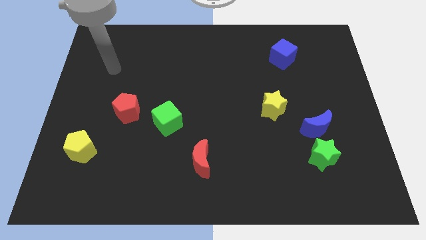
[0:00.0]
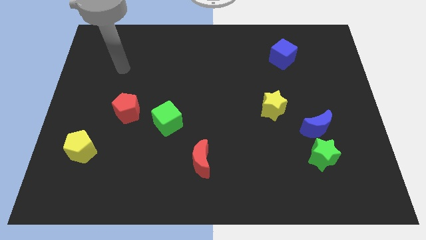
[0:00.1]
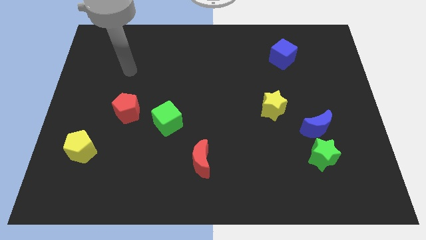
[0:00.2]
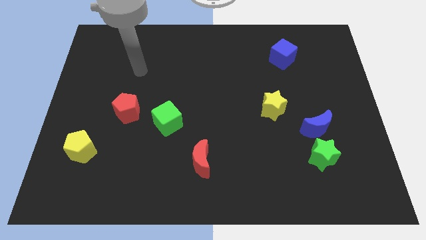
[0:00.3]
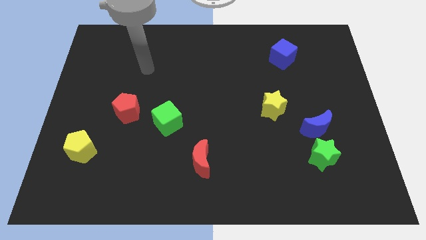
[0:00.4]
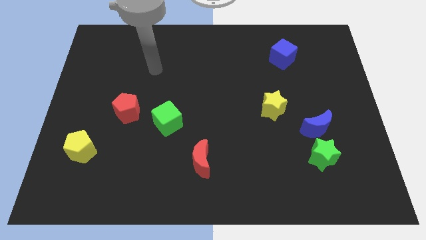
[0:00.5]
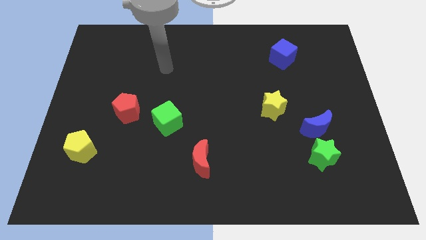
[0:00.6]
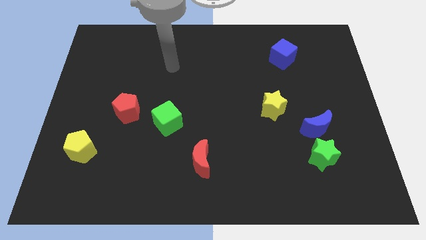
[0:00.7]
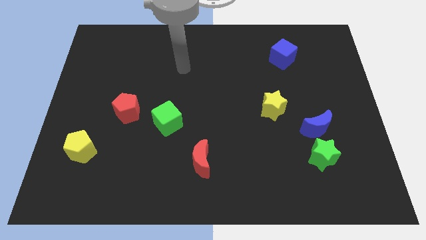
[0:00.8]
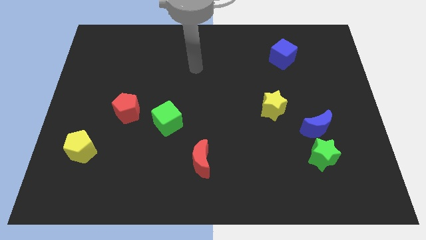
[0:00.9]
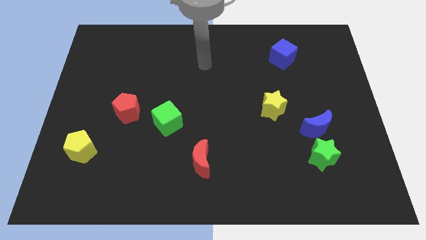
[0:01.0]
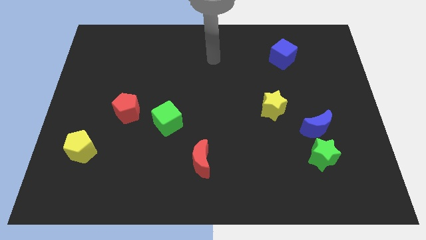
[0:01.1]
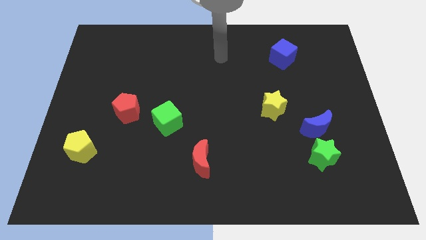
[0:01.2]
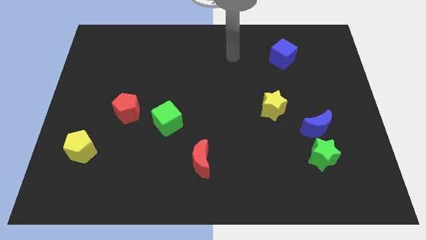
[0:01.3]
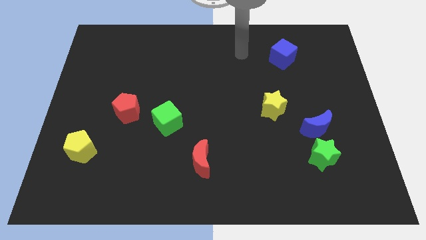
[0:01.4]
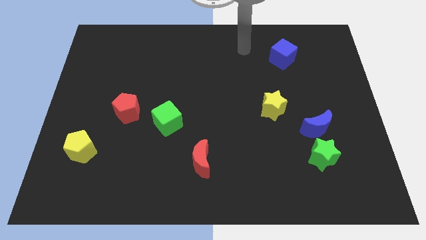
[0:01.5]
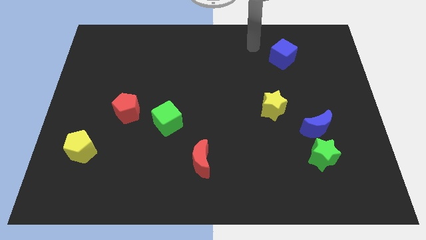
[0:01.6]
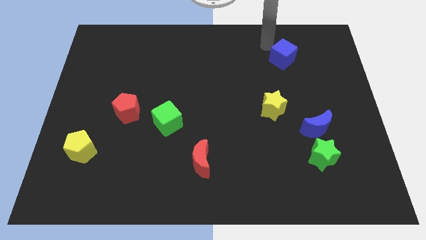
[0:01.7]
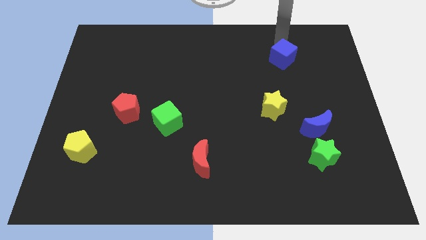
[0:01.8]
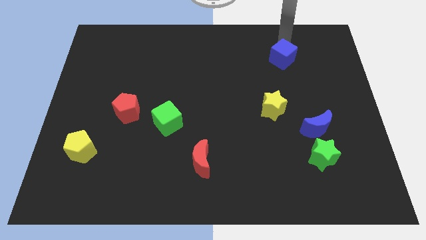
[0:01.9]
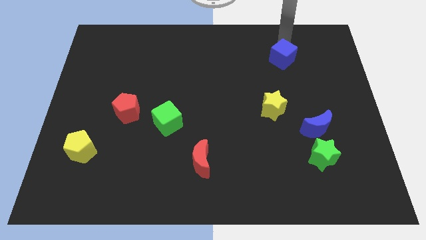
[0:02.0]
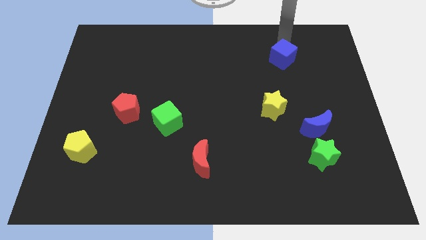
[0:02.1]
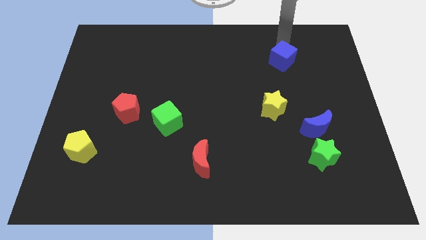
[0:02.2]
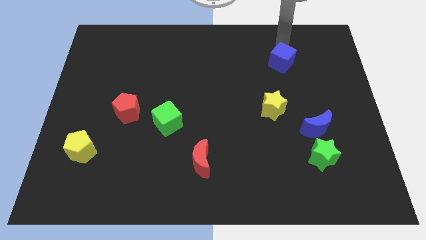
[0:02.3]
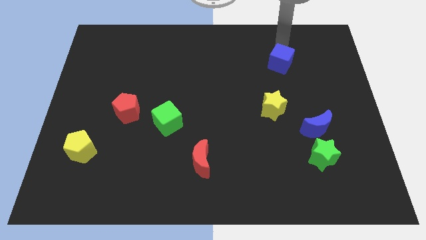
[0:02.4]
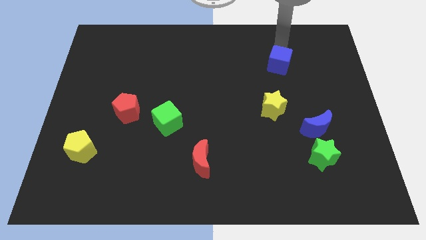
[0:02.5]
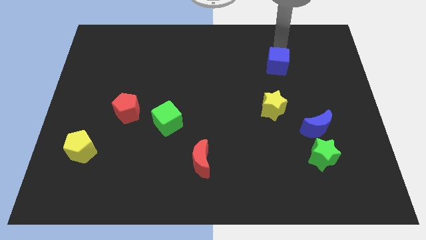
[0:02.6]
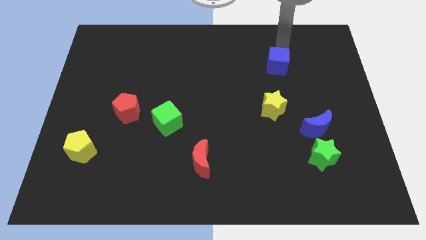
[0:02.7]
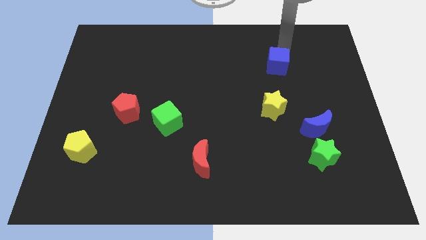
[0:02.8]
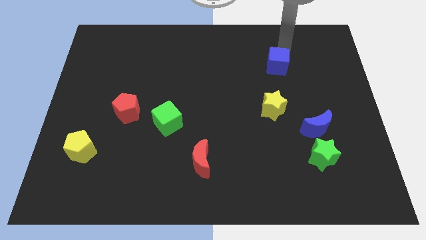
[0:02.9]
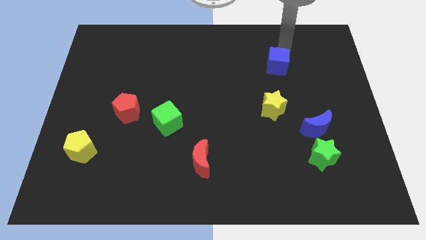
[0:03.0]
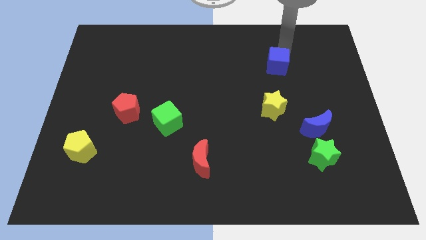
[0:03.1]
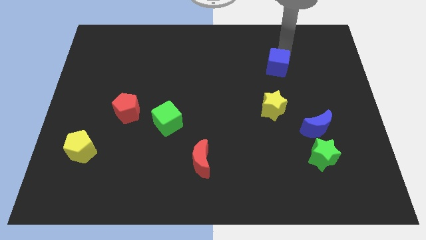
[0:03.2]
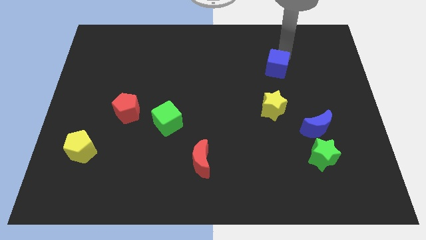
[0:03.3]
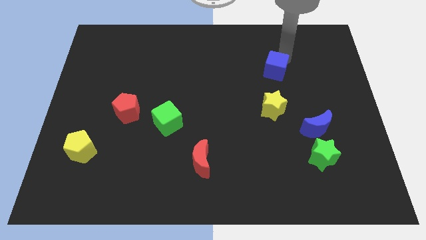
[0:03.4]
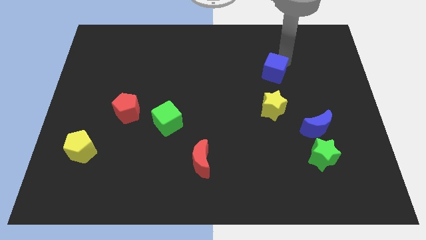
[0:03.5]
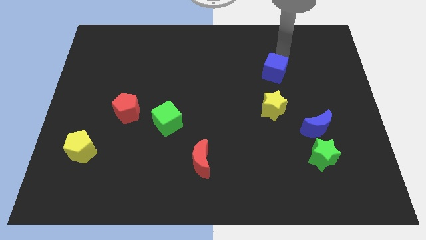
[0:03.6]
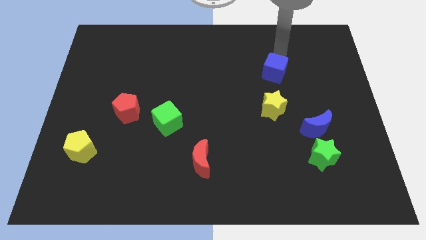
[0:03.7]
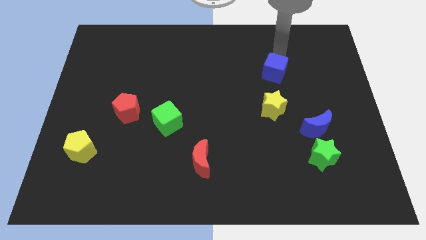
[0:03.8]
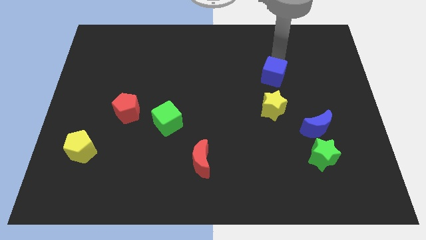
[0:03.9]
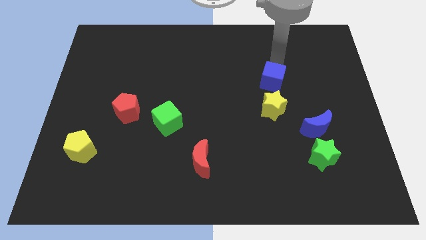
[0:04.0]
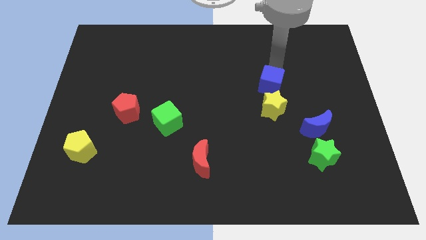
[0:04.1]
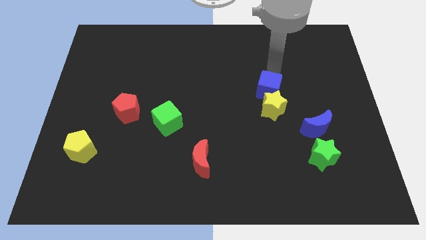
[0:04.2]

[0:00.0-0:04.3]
put the blue cube close to the yellow star

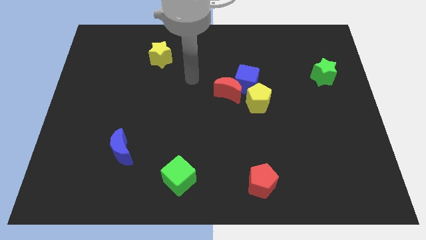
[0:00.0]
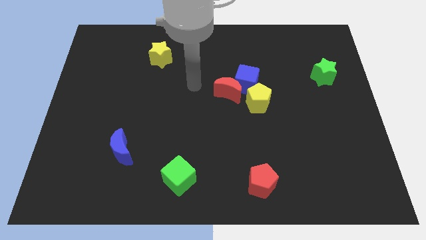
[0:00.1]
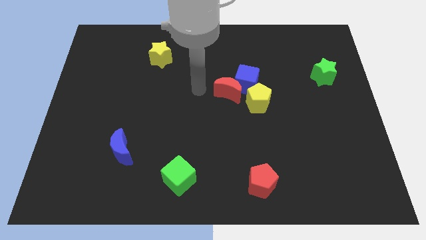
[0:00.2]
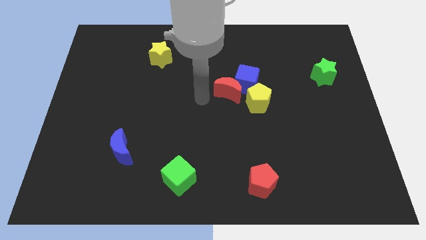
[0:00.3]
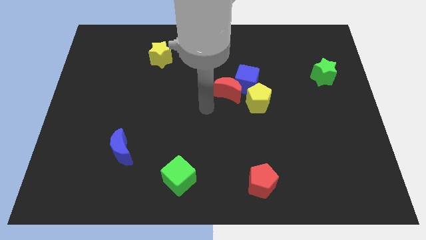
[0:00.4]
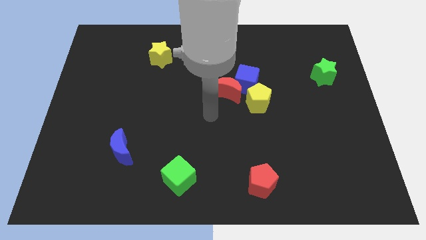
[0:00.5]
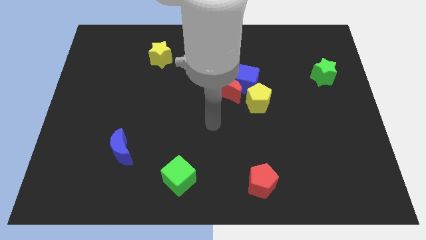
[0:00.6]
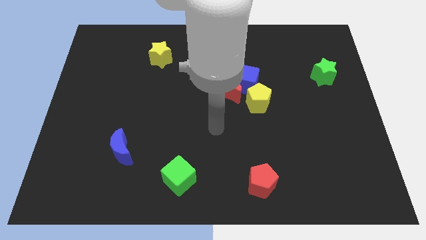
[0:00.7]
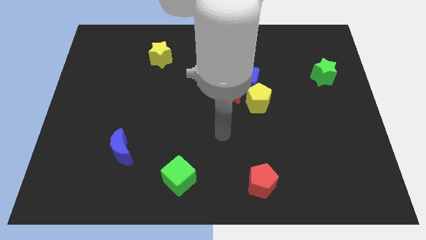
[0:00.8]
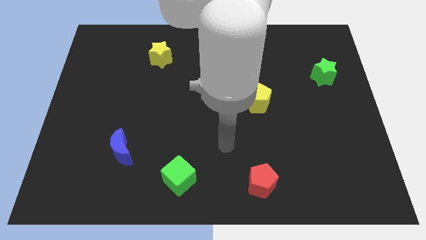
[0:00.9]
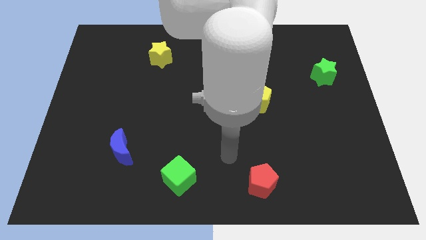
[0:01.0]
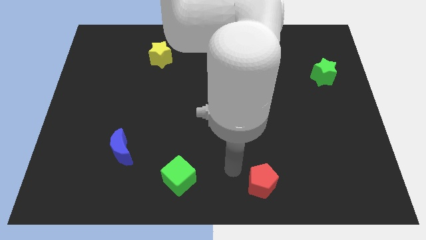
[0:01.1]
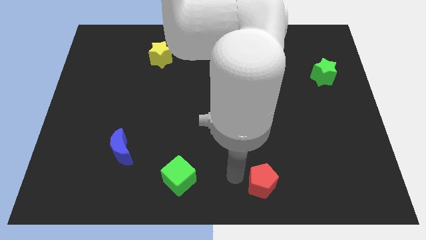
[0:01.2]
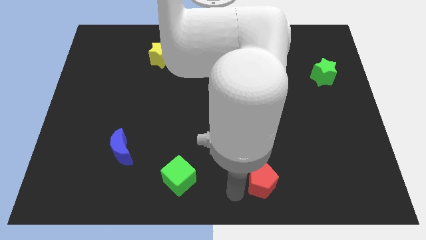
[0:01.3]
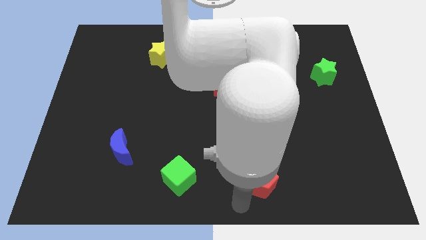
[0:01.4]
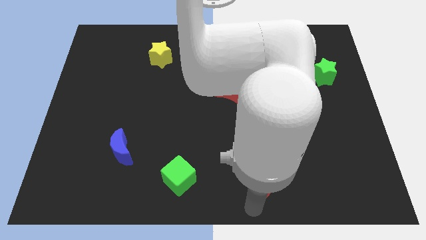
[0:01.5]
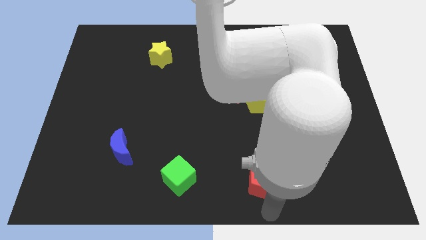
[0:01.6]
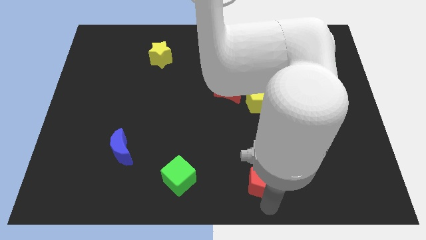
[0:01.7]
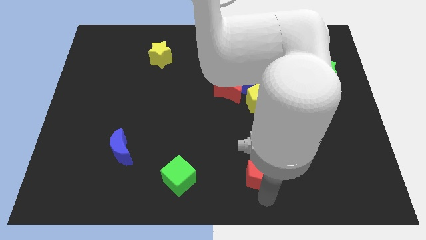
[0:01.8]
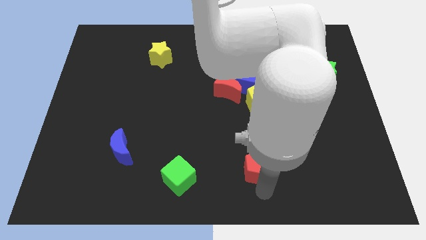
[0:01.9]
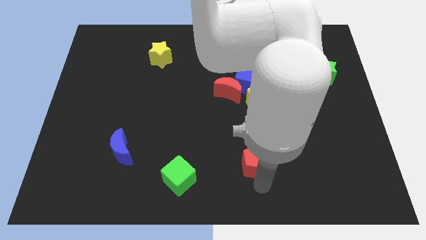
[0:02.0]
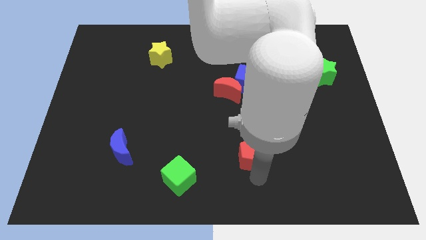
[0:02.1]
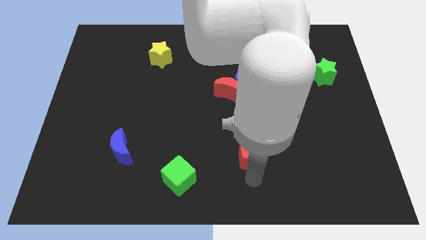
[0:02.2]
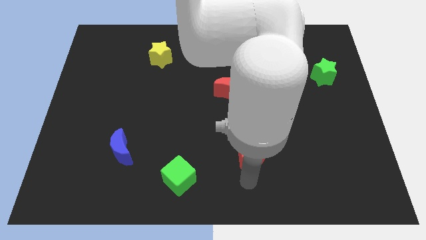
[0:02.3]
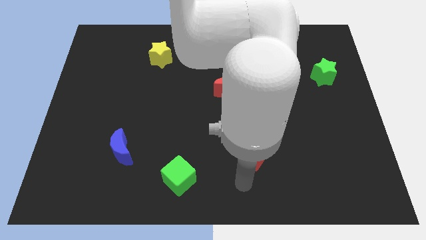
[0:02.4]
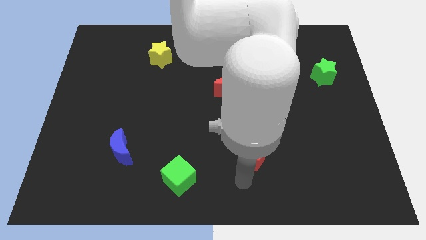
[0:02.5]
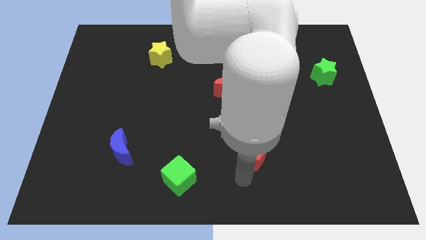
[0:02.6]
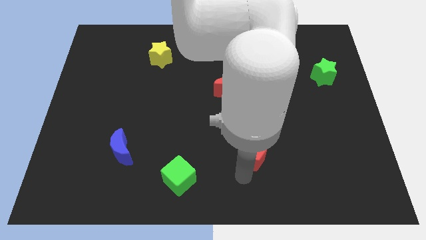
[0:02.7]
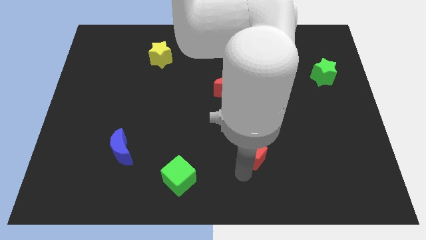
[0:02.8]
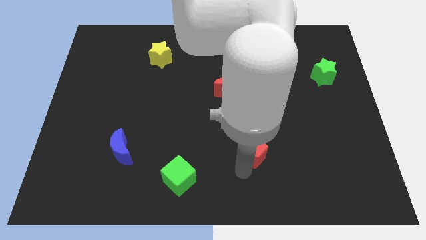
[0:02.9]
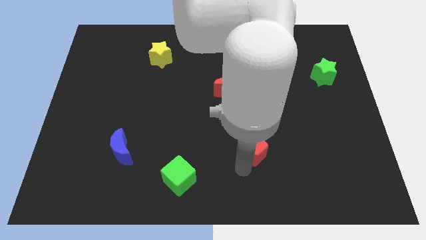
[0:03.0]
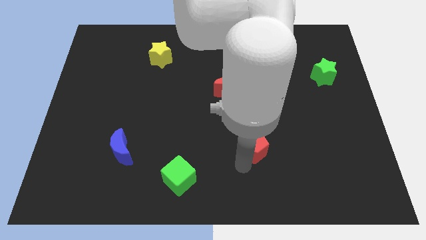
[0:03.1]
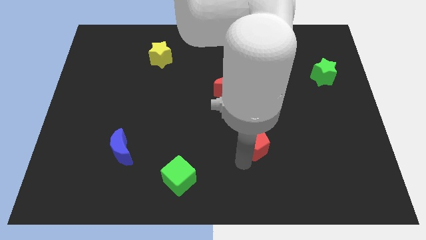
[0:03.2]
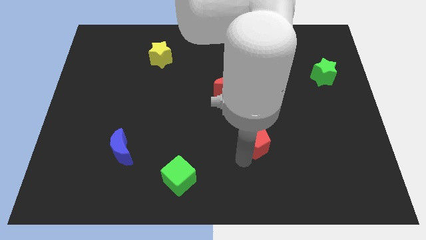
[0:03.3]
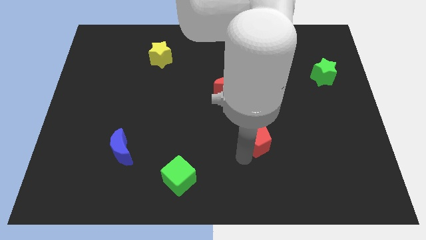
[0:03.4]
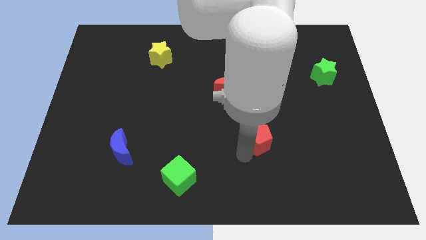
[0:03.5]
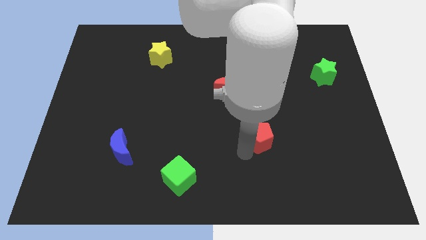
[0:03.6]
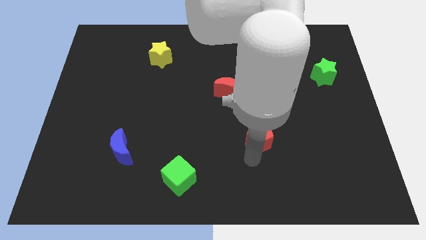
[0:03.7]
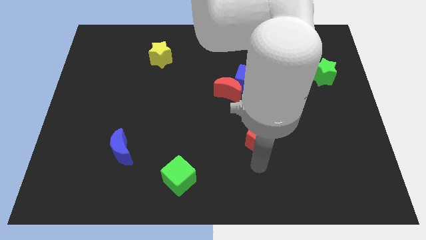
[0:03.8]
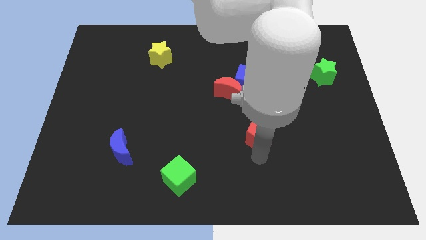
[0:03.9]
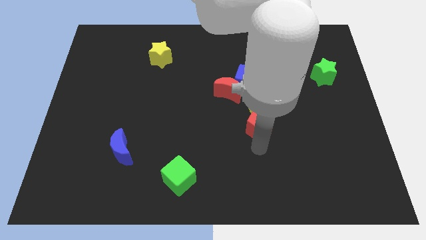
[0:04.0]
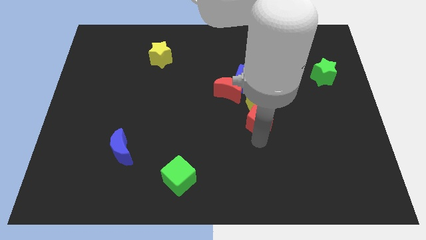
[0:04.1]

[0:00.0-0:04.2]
push the red pentagon next to the yellow pentagon
